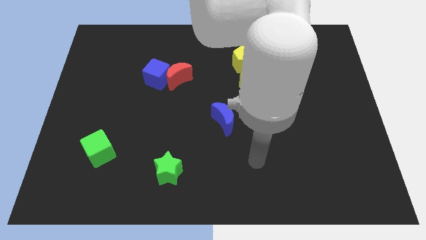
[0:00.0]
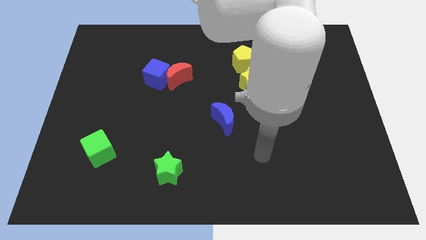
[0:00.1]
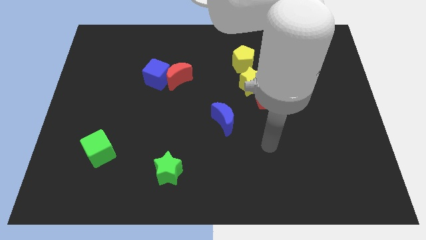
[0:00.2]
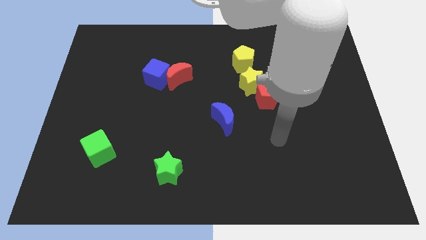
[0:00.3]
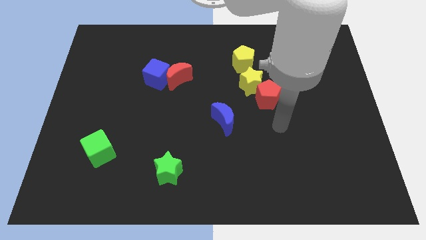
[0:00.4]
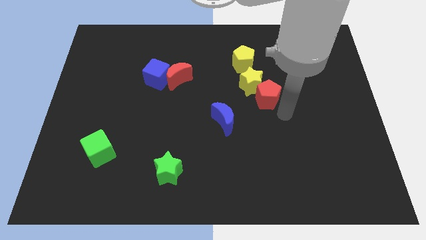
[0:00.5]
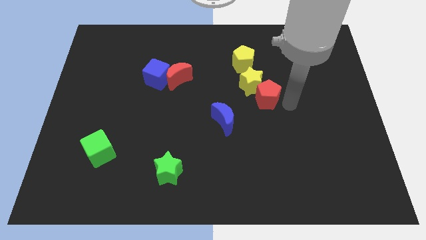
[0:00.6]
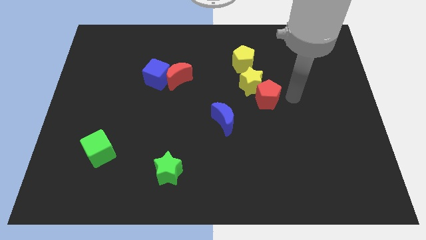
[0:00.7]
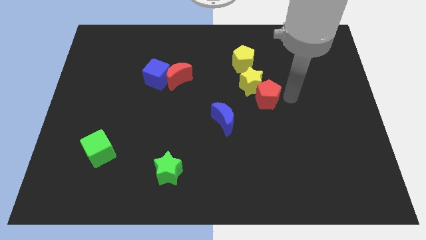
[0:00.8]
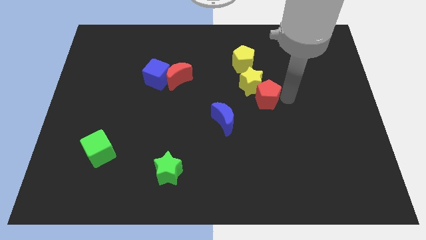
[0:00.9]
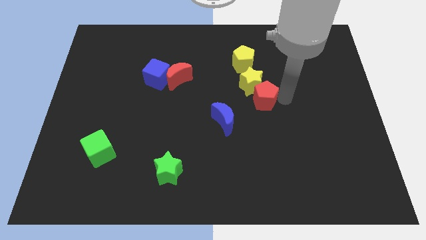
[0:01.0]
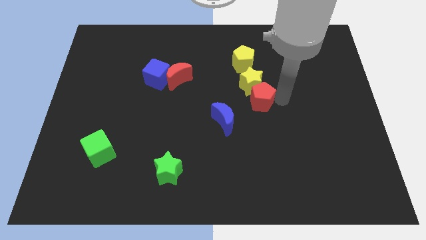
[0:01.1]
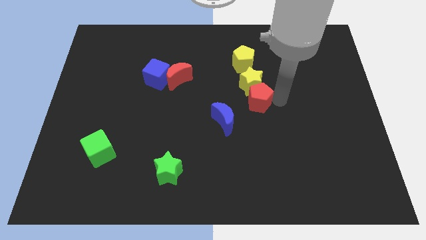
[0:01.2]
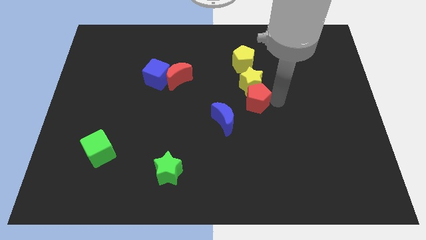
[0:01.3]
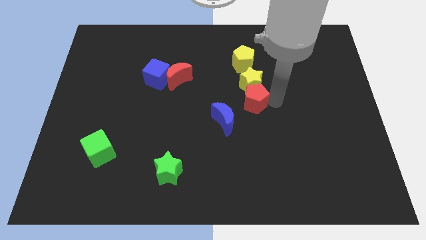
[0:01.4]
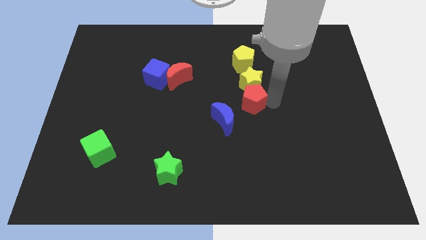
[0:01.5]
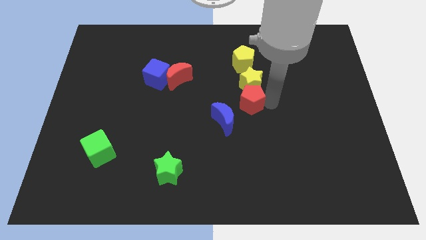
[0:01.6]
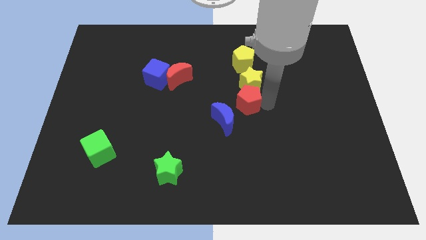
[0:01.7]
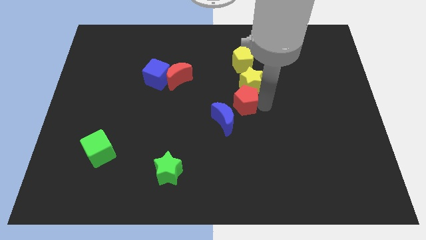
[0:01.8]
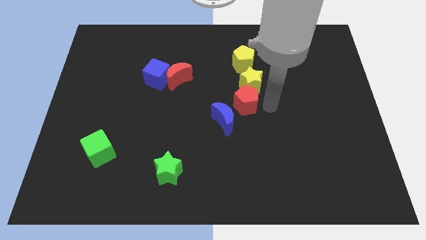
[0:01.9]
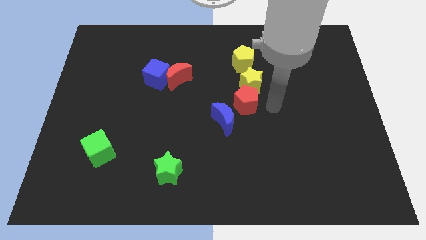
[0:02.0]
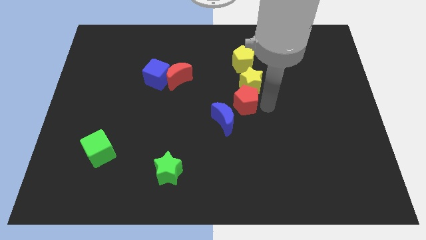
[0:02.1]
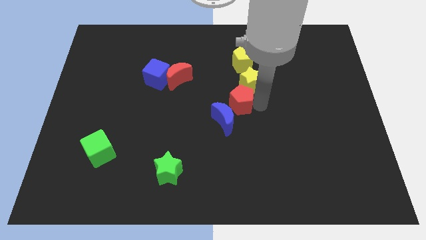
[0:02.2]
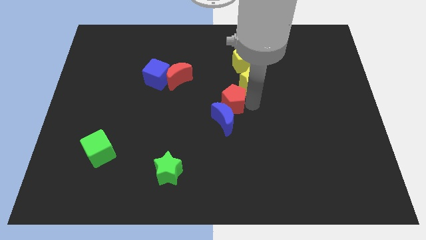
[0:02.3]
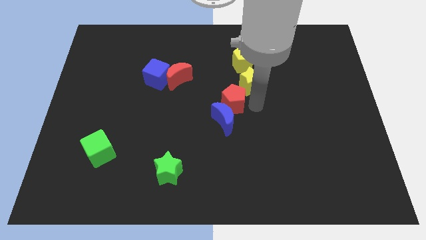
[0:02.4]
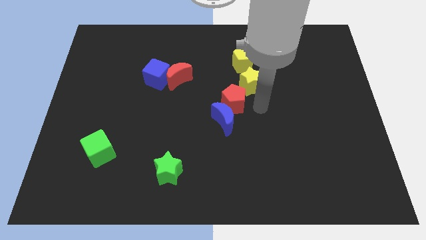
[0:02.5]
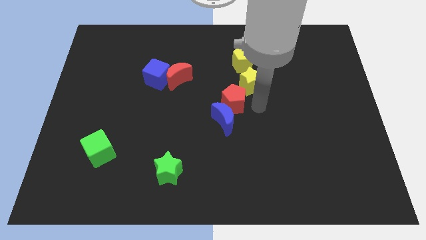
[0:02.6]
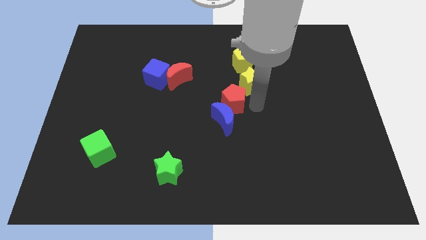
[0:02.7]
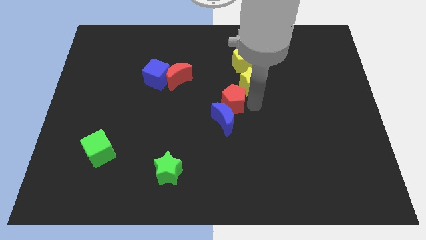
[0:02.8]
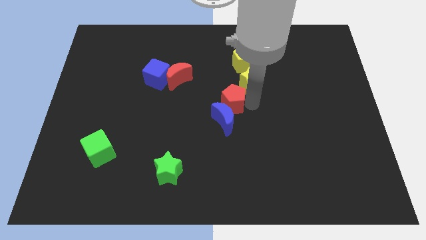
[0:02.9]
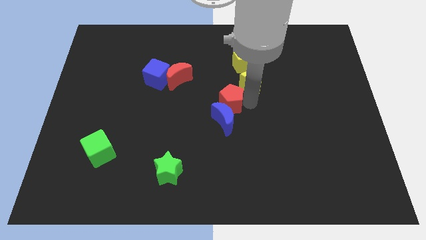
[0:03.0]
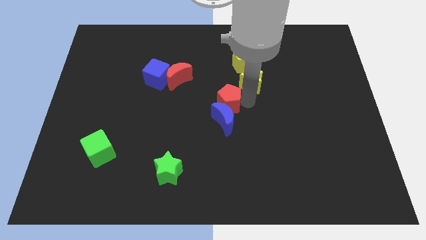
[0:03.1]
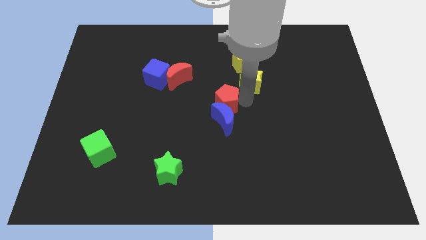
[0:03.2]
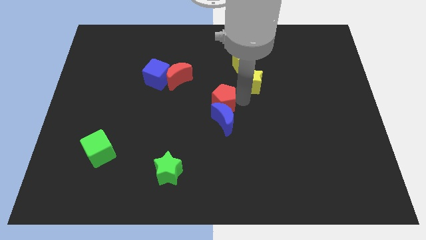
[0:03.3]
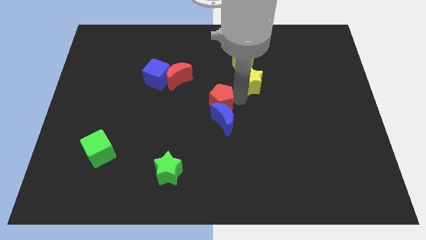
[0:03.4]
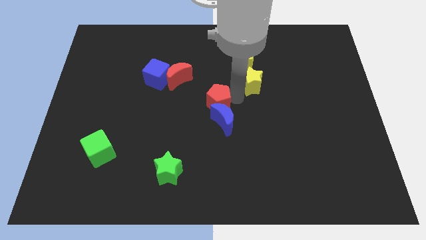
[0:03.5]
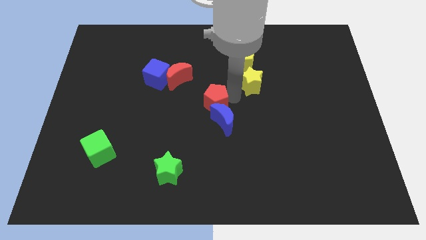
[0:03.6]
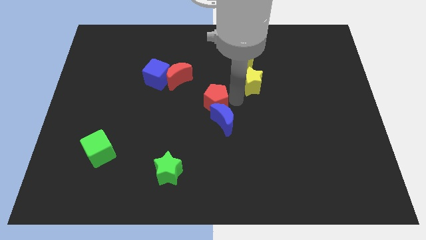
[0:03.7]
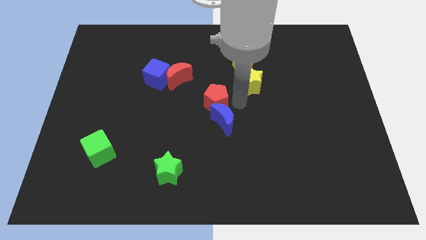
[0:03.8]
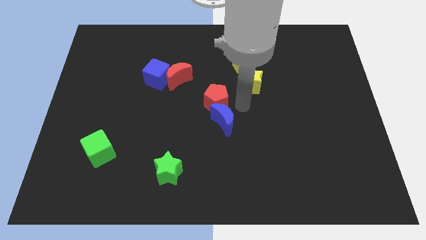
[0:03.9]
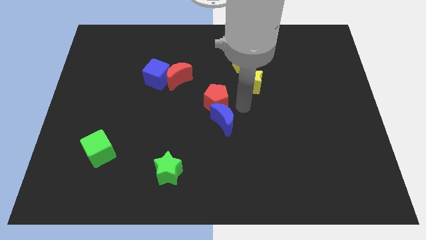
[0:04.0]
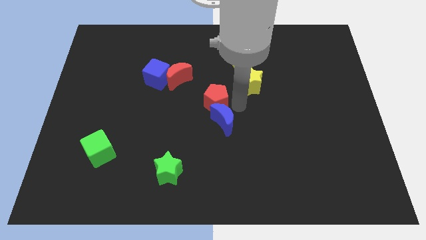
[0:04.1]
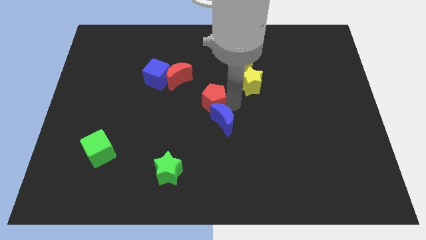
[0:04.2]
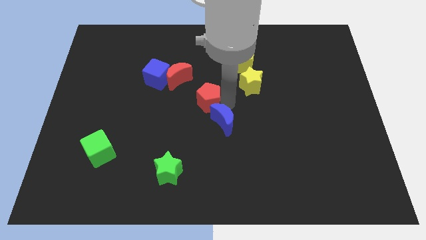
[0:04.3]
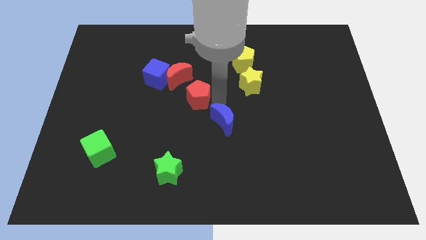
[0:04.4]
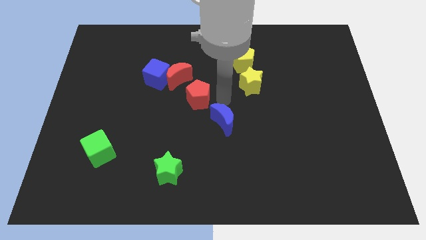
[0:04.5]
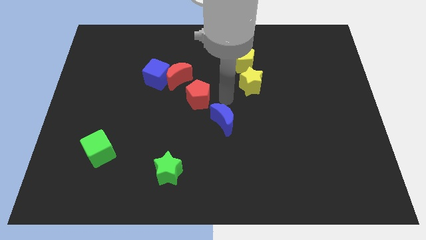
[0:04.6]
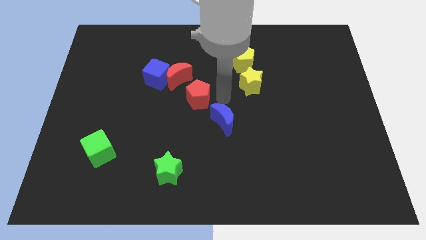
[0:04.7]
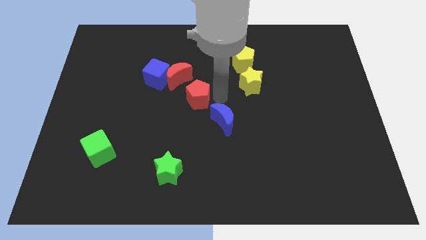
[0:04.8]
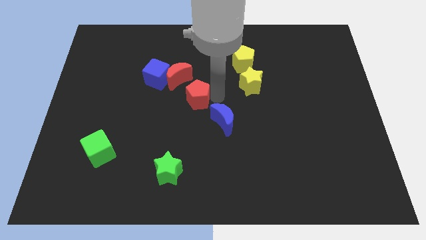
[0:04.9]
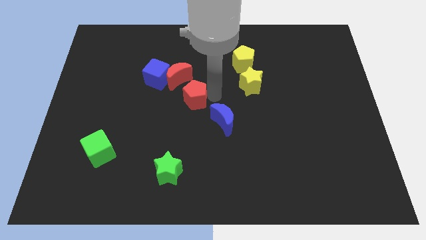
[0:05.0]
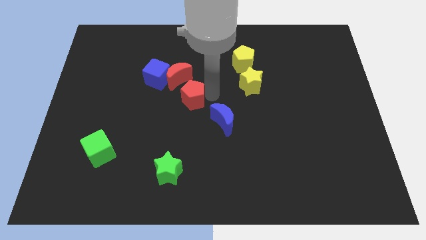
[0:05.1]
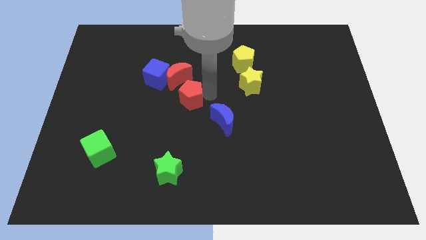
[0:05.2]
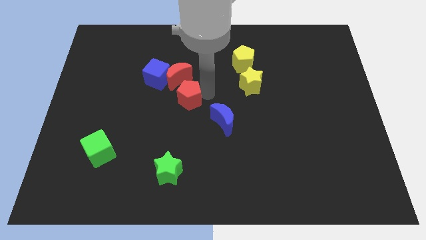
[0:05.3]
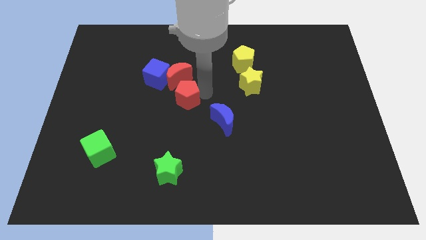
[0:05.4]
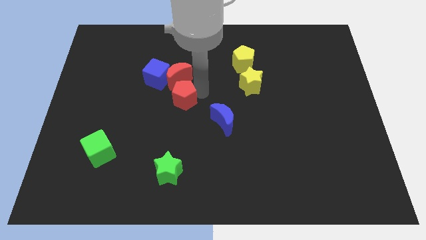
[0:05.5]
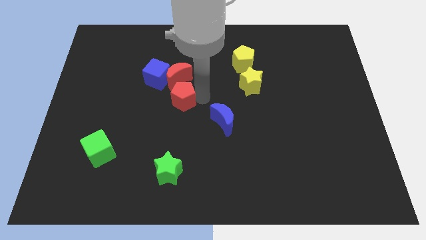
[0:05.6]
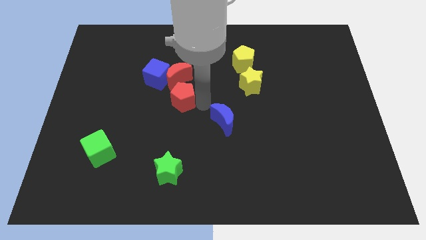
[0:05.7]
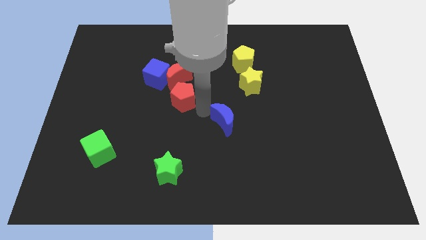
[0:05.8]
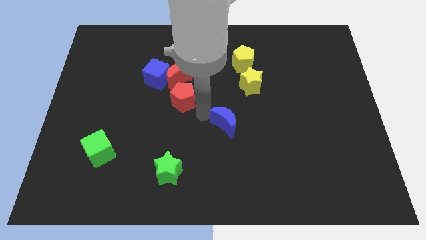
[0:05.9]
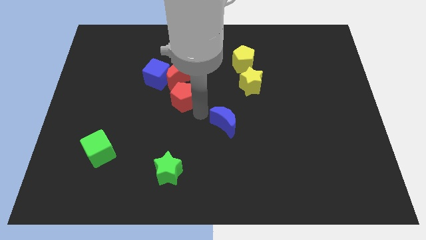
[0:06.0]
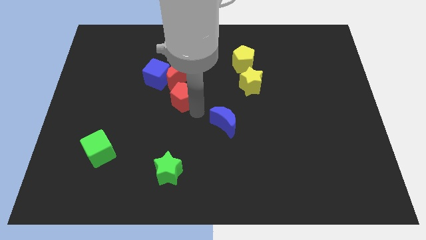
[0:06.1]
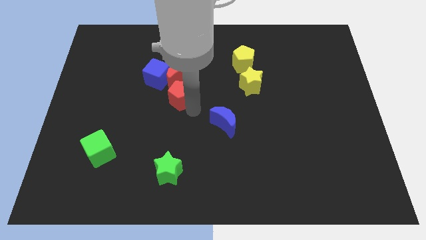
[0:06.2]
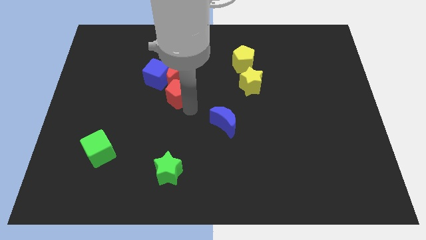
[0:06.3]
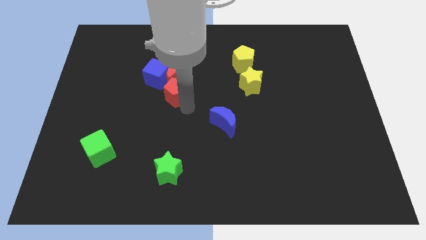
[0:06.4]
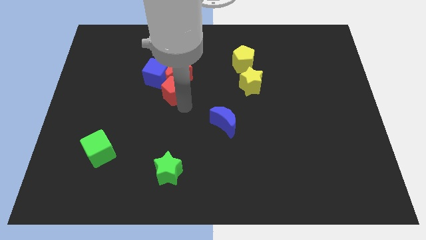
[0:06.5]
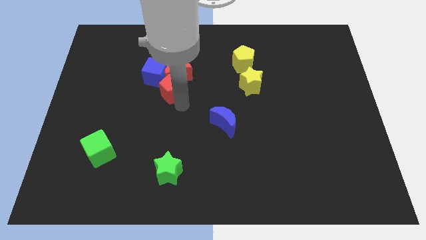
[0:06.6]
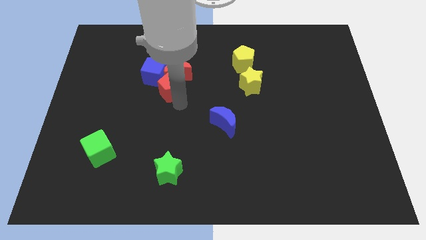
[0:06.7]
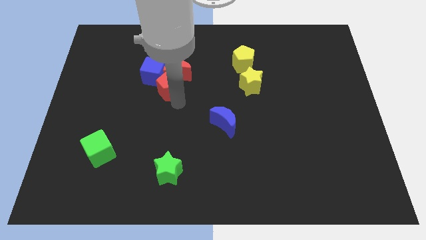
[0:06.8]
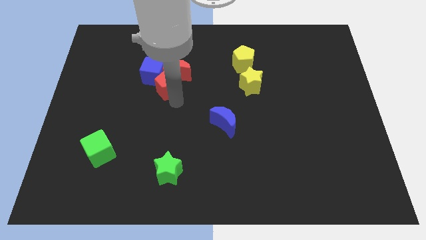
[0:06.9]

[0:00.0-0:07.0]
put the red pentagon next to the blue cube

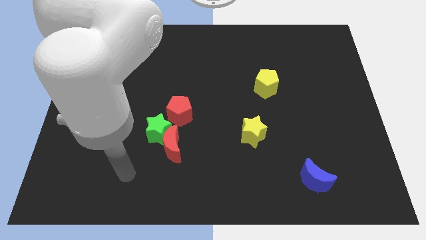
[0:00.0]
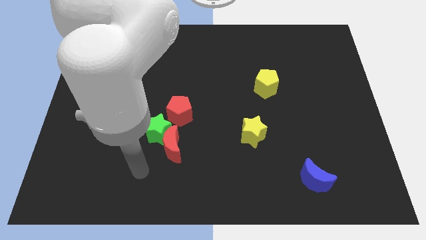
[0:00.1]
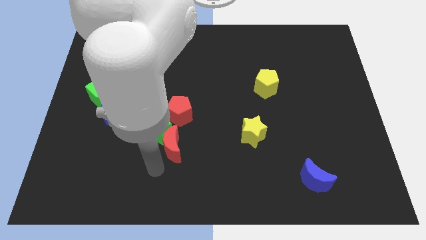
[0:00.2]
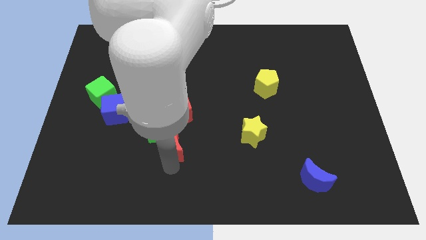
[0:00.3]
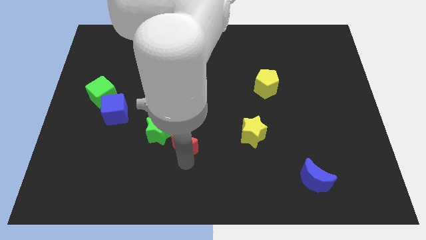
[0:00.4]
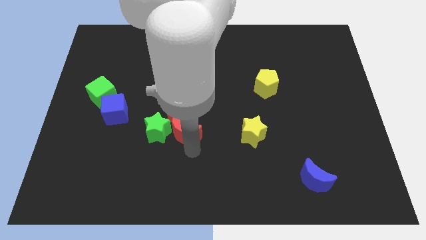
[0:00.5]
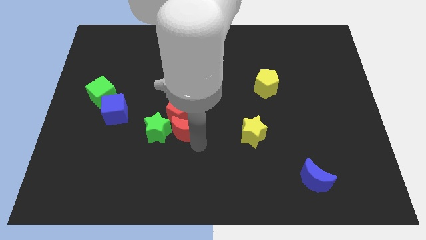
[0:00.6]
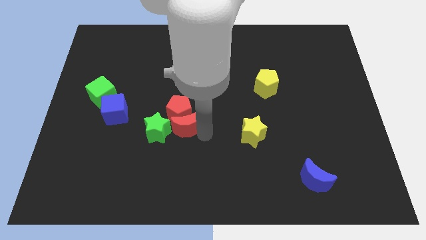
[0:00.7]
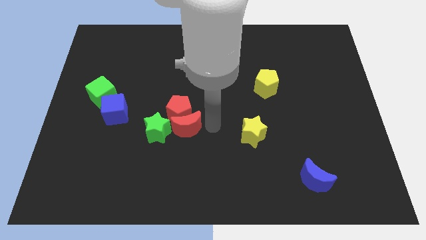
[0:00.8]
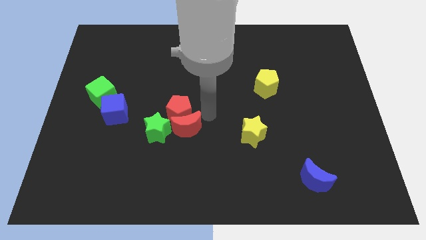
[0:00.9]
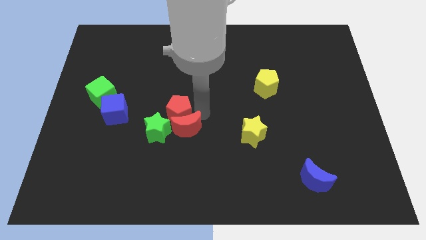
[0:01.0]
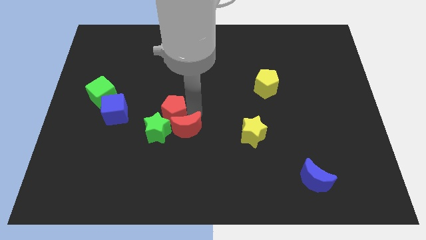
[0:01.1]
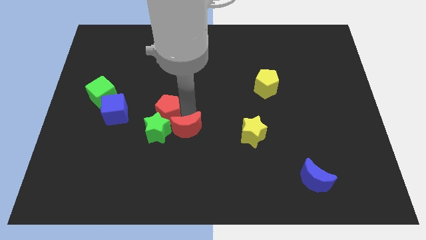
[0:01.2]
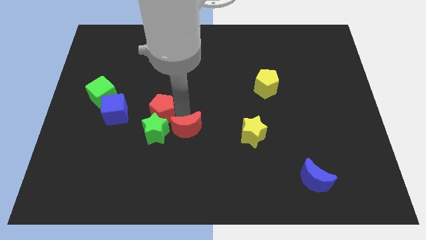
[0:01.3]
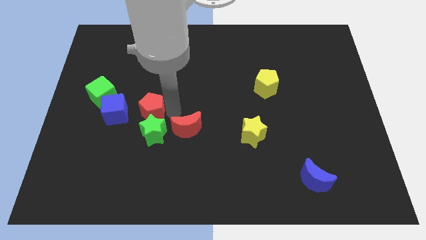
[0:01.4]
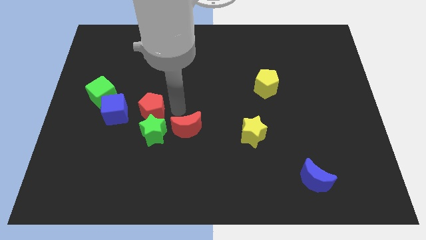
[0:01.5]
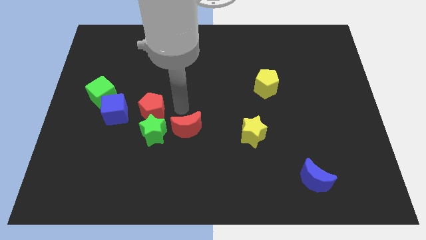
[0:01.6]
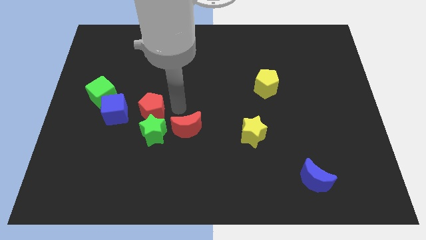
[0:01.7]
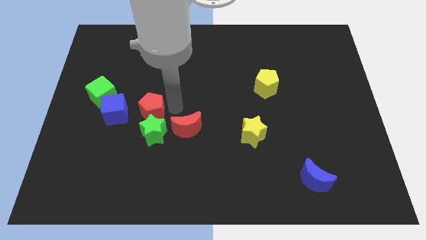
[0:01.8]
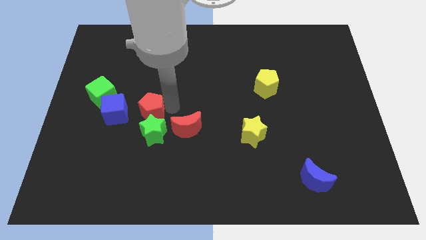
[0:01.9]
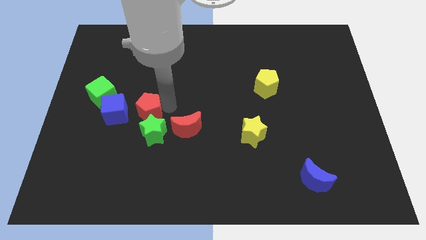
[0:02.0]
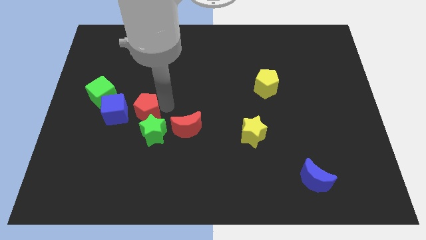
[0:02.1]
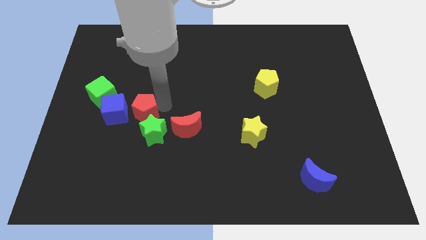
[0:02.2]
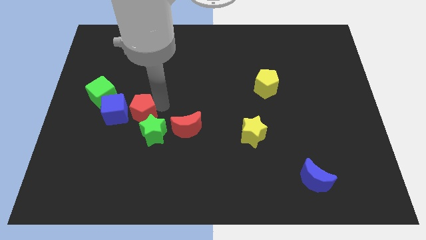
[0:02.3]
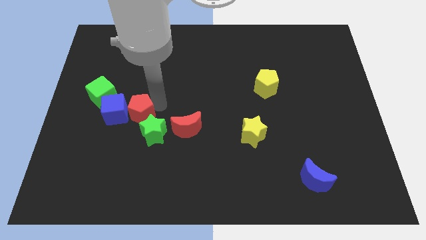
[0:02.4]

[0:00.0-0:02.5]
move the red pentagon next to the blue cube
